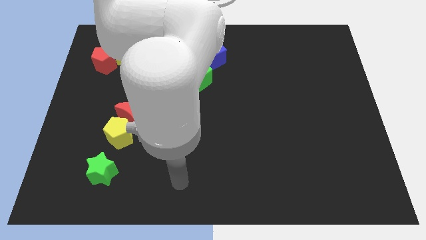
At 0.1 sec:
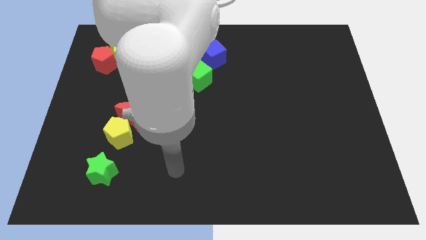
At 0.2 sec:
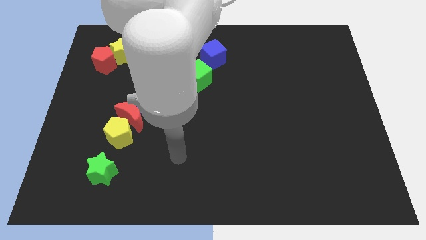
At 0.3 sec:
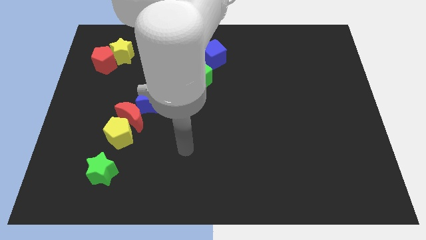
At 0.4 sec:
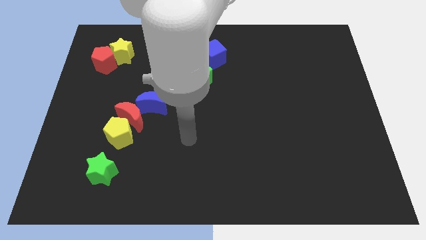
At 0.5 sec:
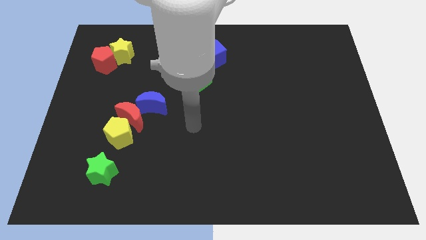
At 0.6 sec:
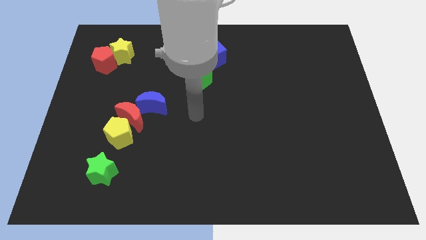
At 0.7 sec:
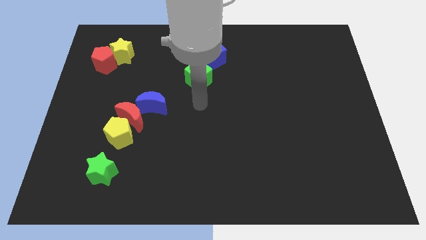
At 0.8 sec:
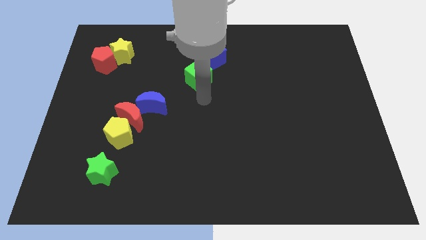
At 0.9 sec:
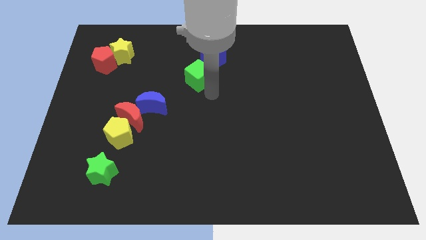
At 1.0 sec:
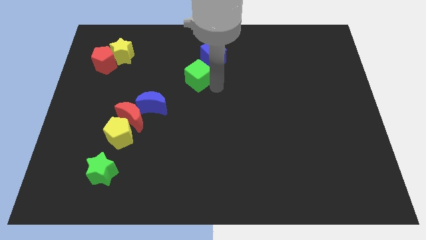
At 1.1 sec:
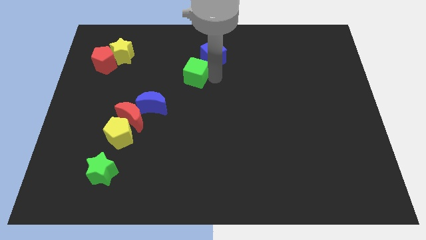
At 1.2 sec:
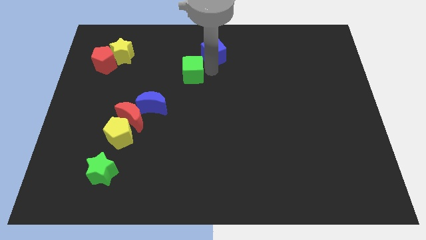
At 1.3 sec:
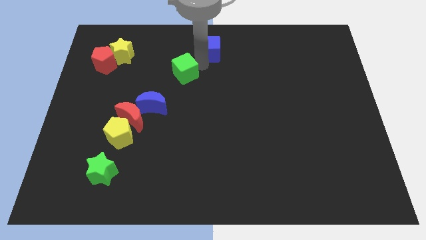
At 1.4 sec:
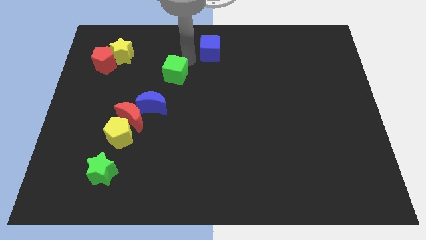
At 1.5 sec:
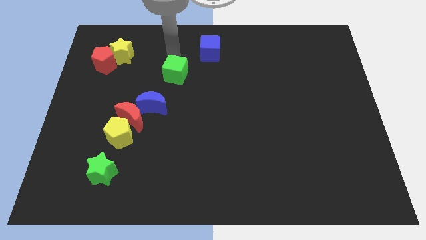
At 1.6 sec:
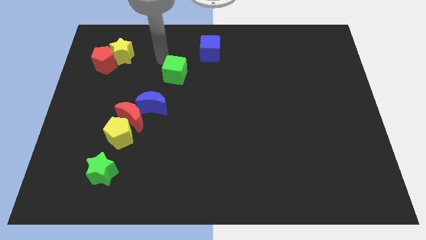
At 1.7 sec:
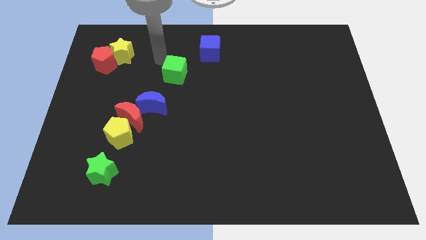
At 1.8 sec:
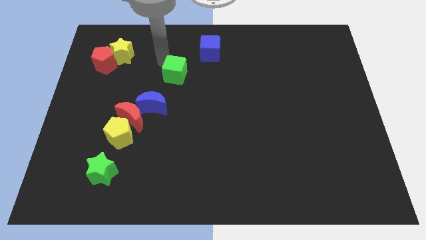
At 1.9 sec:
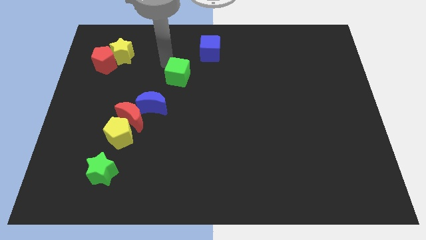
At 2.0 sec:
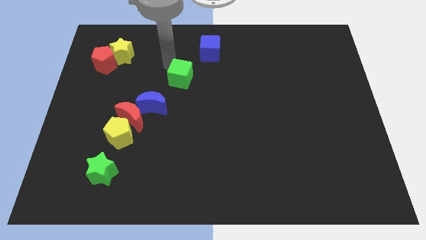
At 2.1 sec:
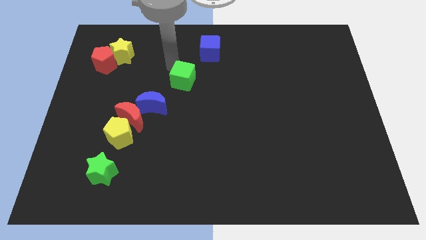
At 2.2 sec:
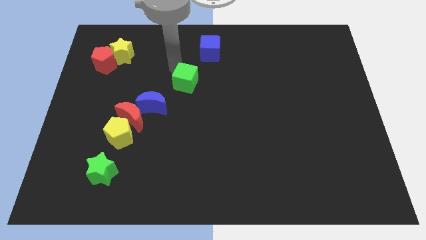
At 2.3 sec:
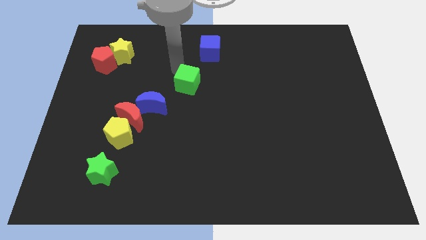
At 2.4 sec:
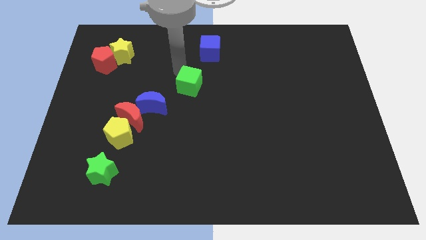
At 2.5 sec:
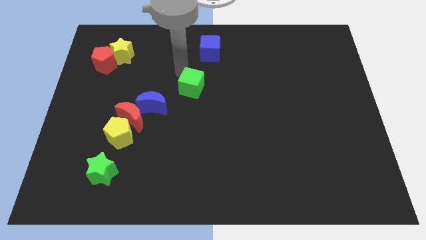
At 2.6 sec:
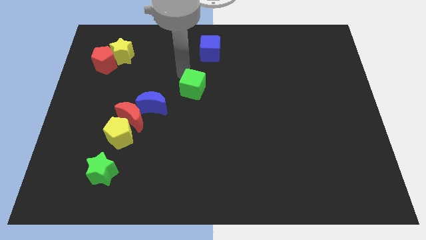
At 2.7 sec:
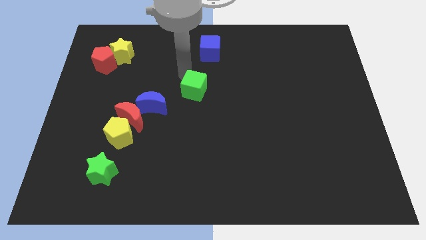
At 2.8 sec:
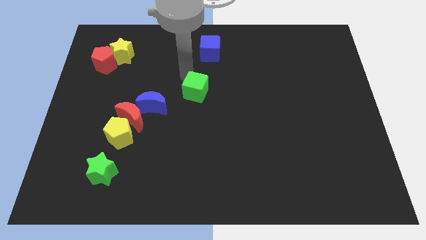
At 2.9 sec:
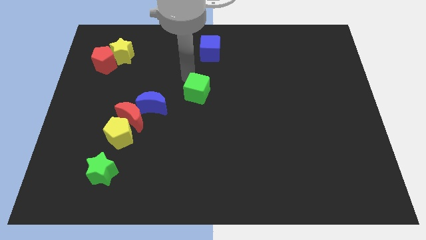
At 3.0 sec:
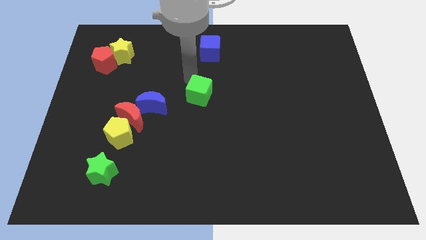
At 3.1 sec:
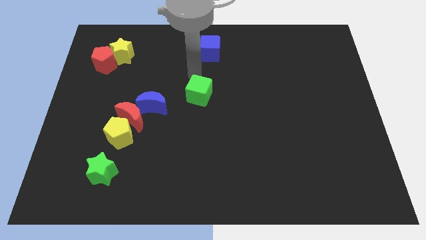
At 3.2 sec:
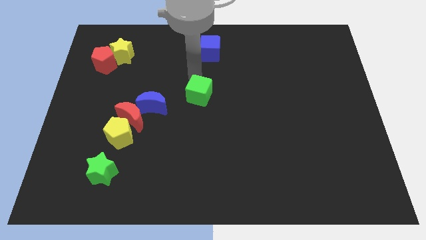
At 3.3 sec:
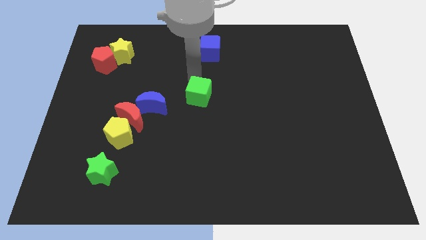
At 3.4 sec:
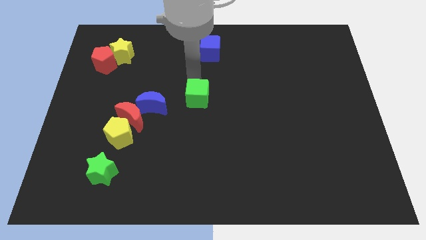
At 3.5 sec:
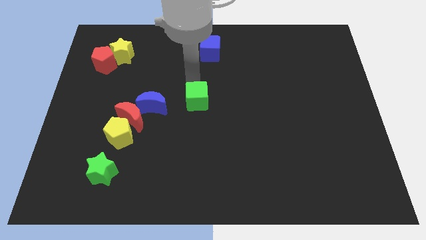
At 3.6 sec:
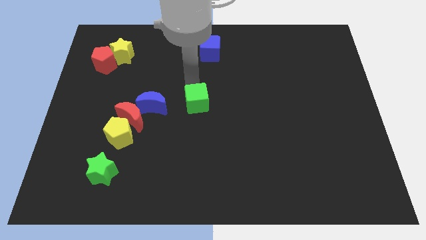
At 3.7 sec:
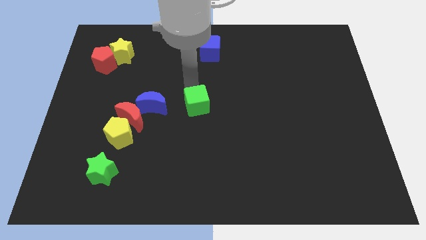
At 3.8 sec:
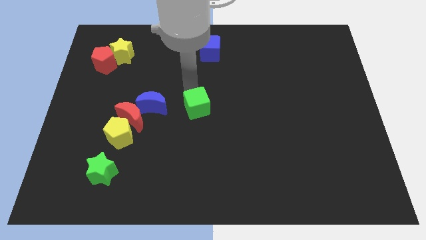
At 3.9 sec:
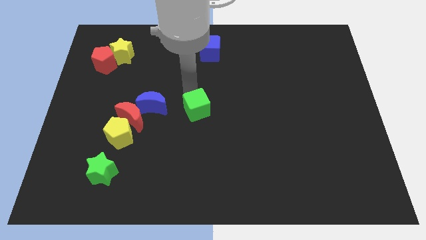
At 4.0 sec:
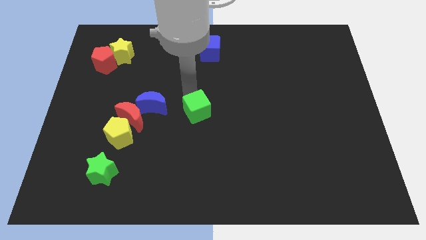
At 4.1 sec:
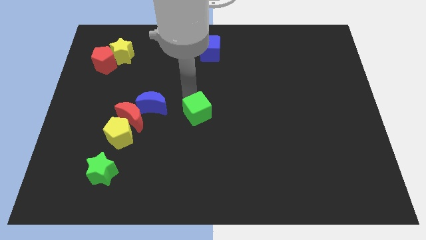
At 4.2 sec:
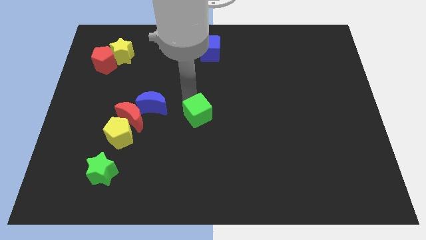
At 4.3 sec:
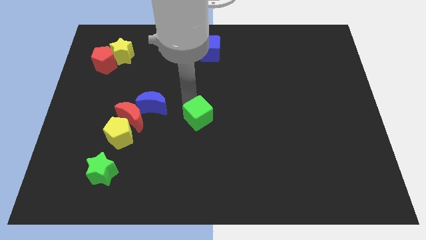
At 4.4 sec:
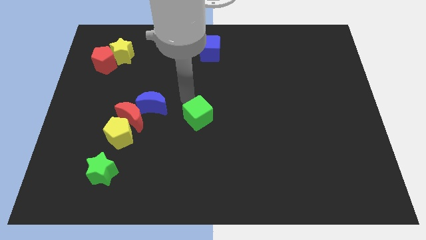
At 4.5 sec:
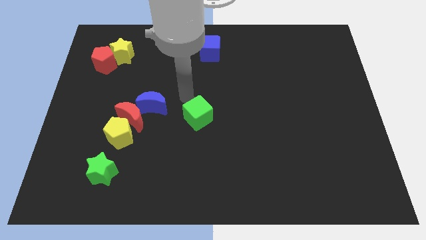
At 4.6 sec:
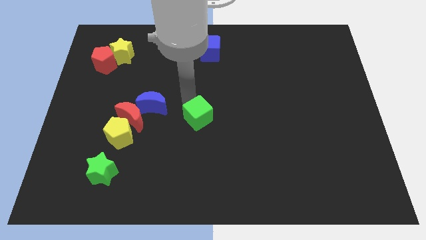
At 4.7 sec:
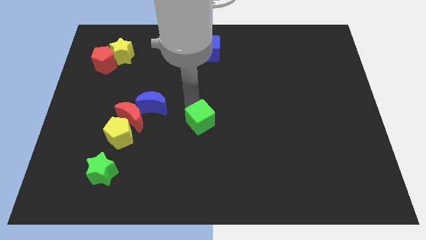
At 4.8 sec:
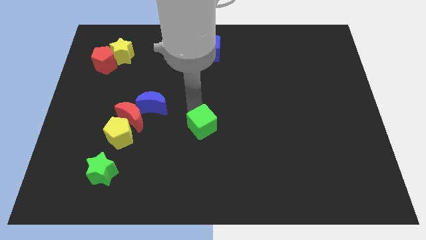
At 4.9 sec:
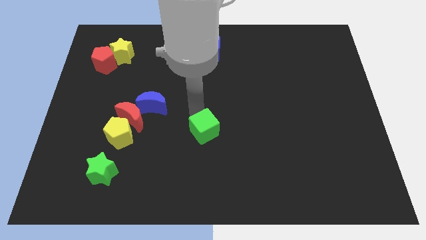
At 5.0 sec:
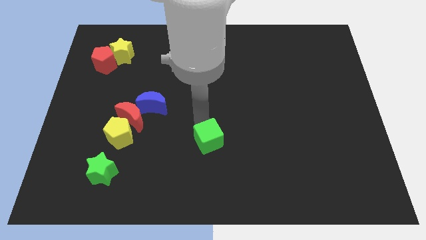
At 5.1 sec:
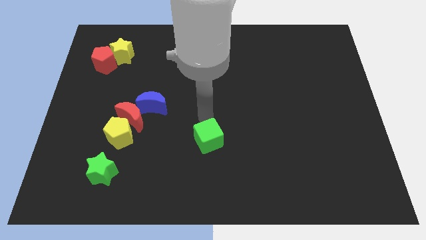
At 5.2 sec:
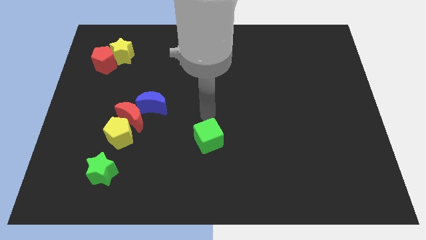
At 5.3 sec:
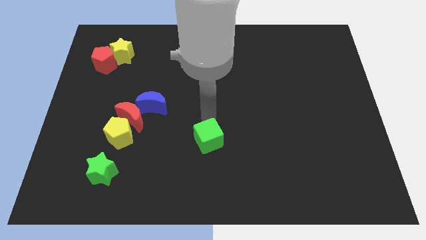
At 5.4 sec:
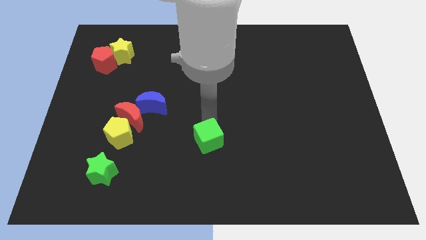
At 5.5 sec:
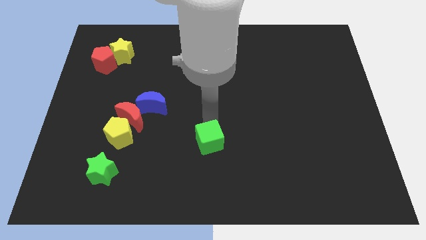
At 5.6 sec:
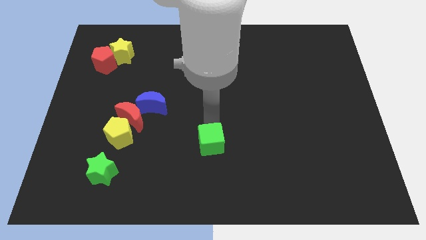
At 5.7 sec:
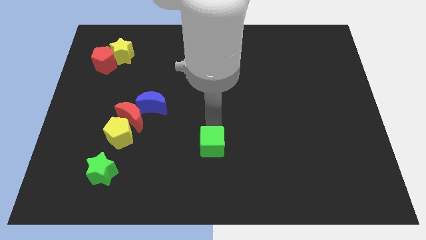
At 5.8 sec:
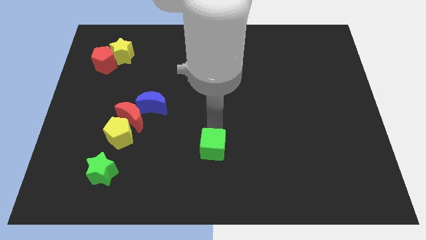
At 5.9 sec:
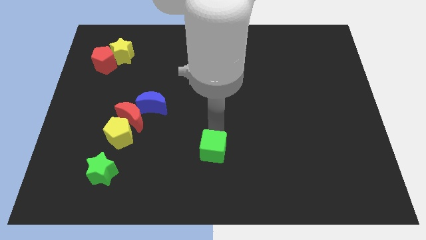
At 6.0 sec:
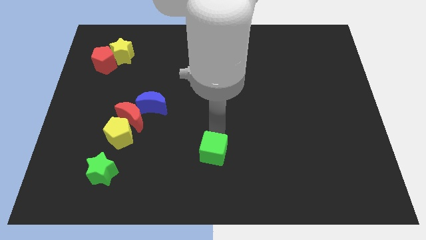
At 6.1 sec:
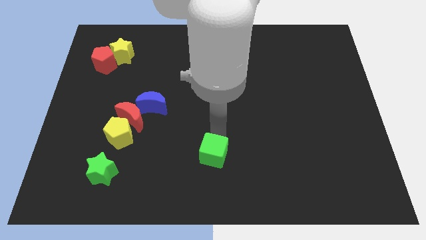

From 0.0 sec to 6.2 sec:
push the green cube to the bottom
